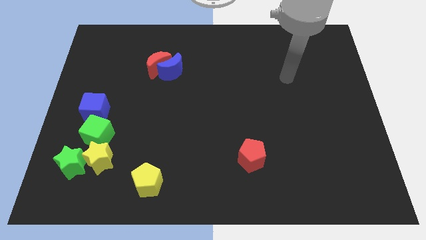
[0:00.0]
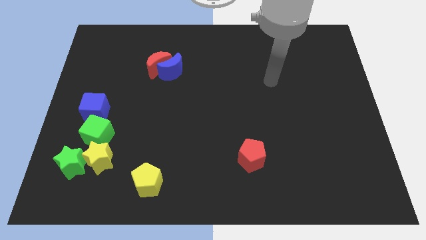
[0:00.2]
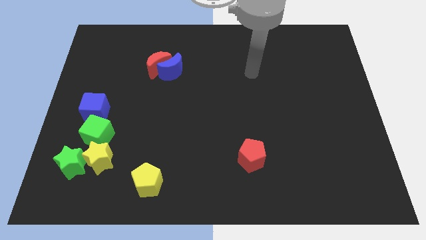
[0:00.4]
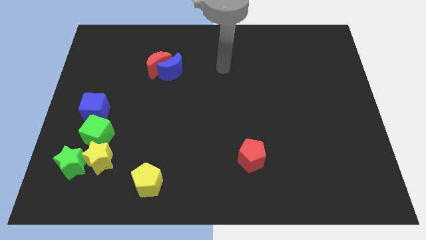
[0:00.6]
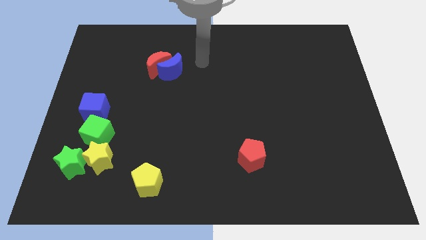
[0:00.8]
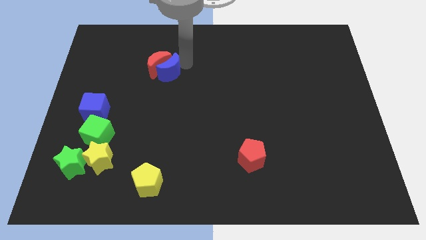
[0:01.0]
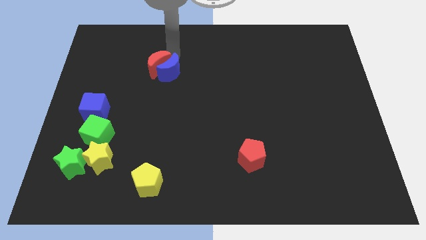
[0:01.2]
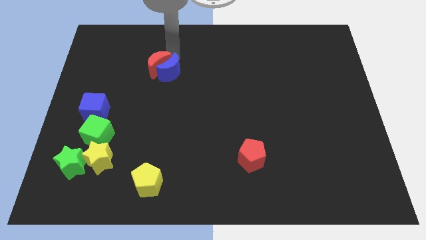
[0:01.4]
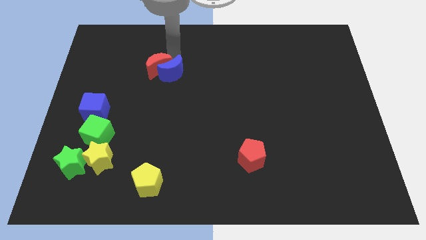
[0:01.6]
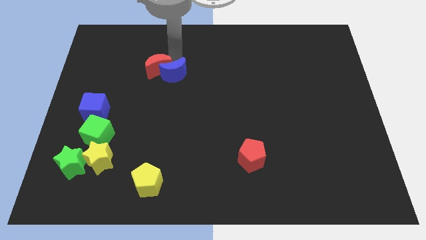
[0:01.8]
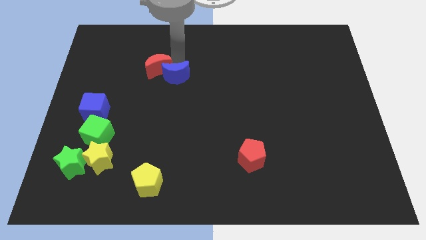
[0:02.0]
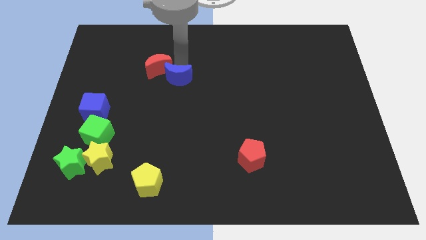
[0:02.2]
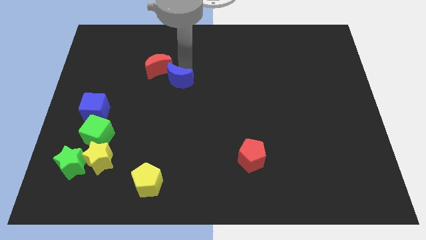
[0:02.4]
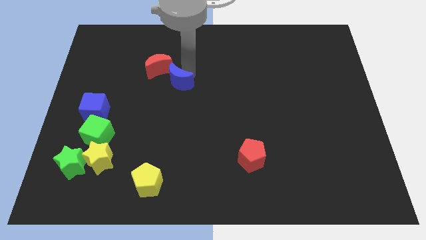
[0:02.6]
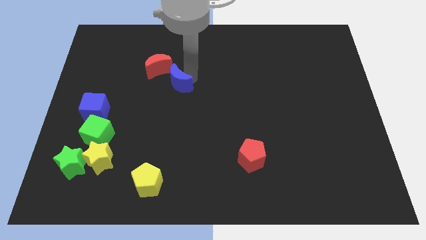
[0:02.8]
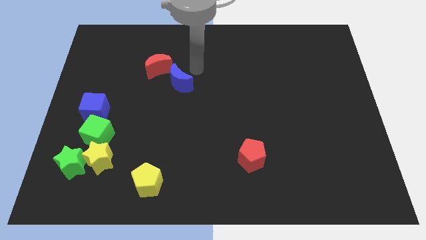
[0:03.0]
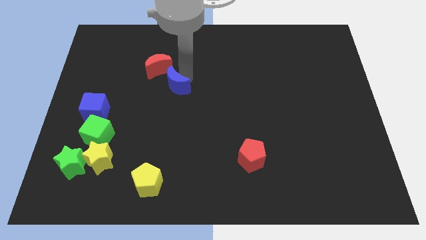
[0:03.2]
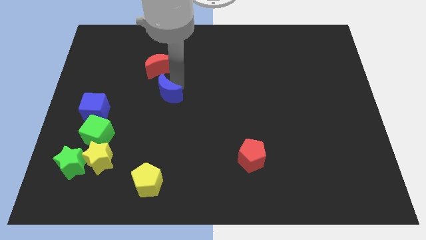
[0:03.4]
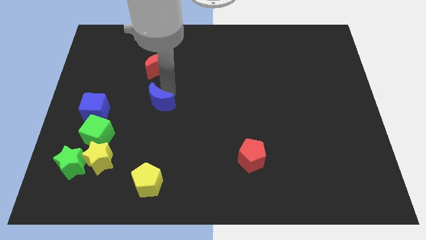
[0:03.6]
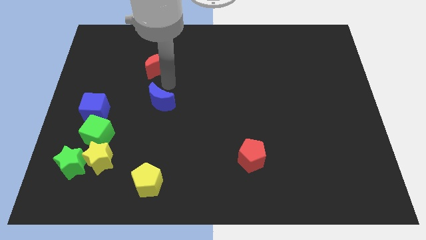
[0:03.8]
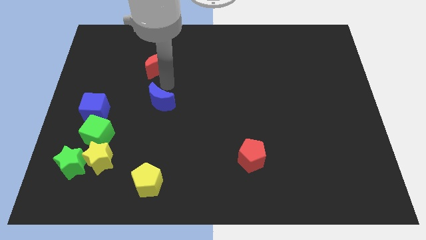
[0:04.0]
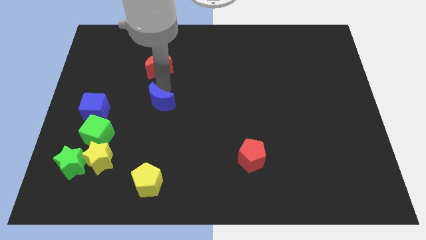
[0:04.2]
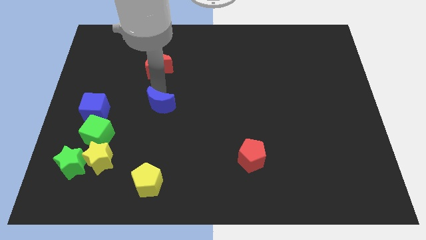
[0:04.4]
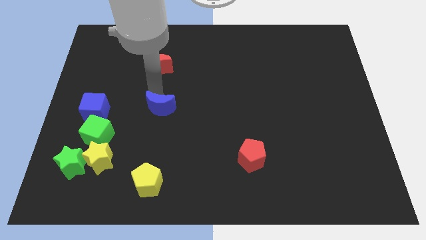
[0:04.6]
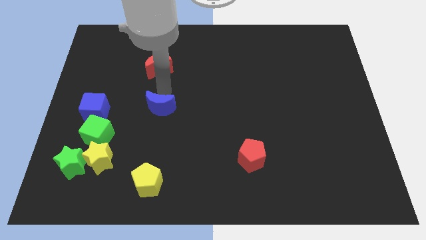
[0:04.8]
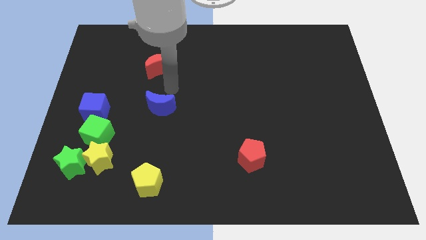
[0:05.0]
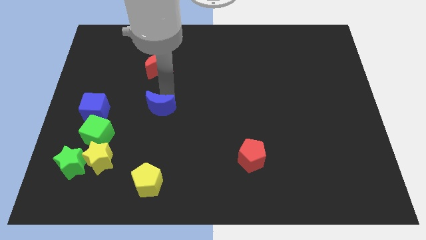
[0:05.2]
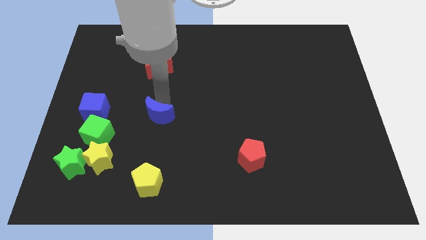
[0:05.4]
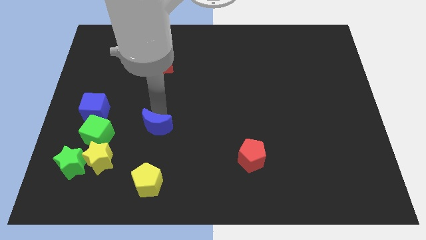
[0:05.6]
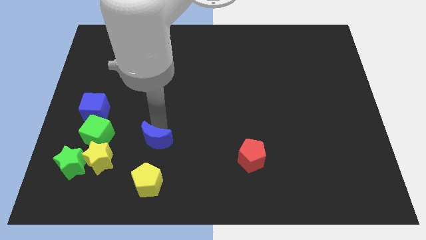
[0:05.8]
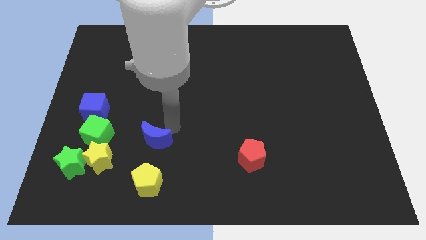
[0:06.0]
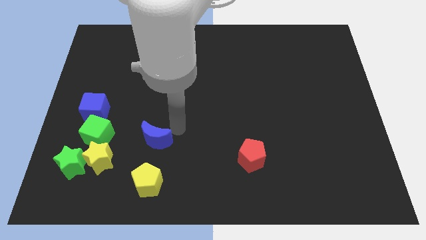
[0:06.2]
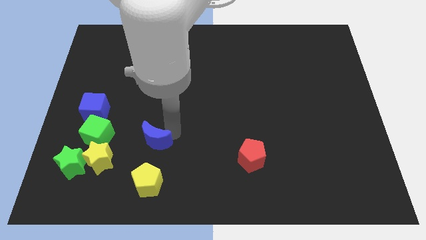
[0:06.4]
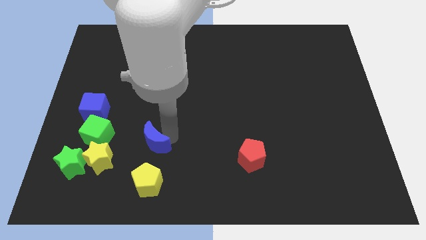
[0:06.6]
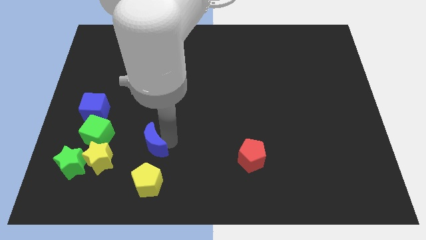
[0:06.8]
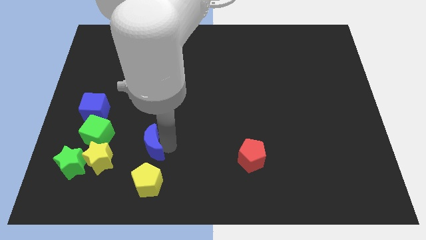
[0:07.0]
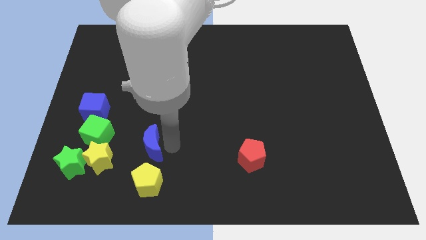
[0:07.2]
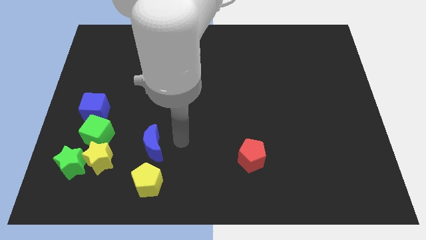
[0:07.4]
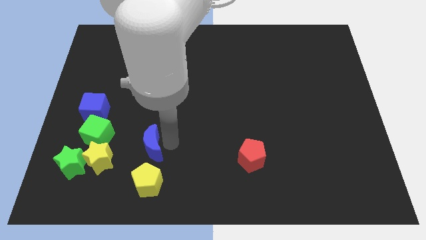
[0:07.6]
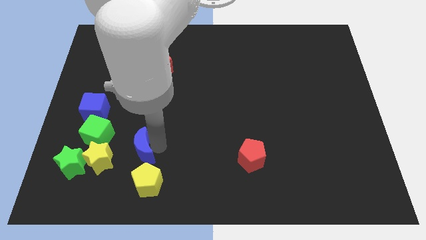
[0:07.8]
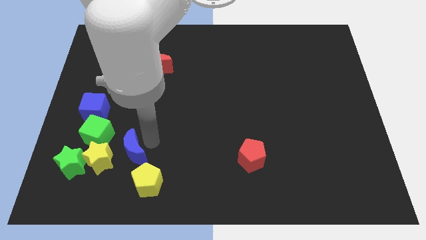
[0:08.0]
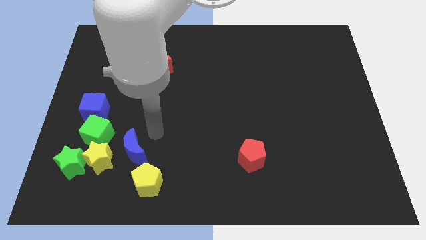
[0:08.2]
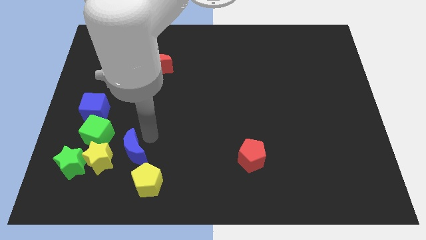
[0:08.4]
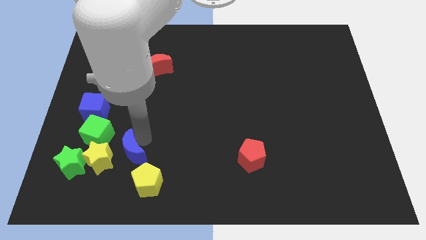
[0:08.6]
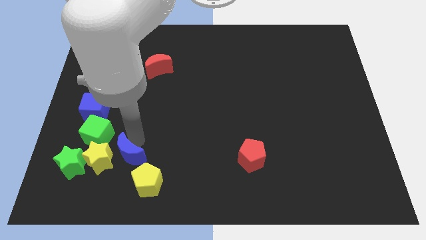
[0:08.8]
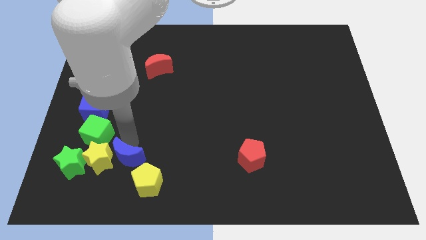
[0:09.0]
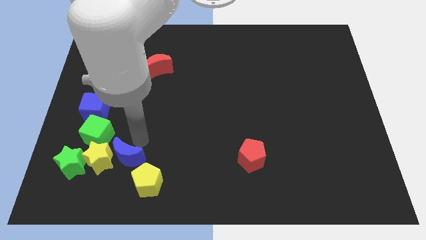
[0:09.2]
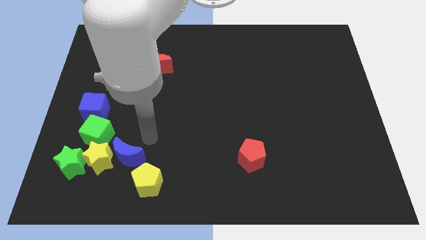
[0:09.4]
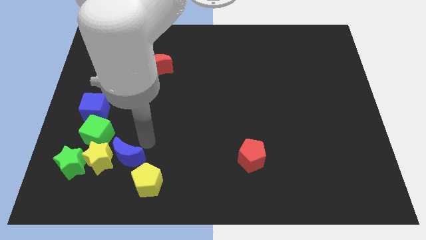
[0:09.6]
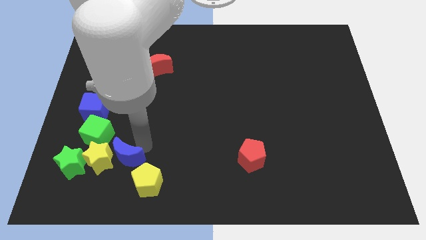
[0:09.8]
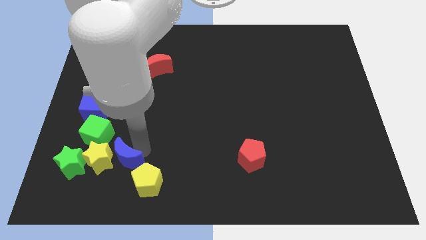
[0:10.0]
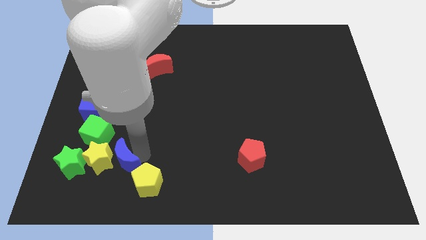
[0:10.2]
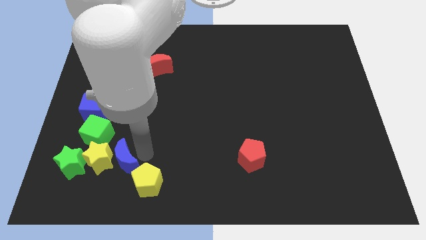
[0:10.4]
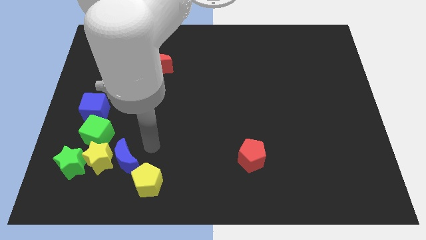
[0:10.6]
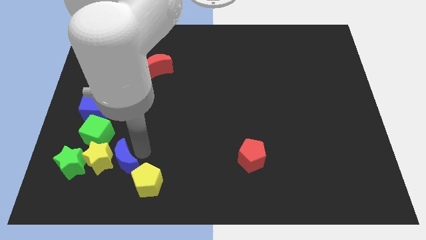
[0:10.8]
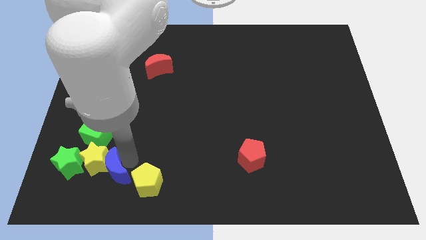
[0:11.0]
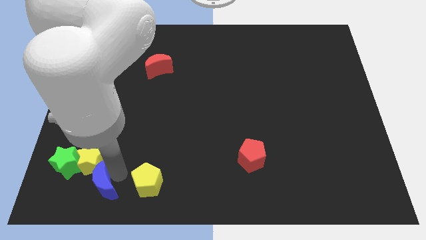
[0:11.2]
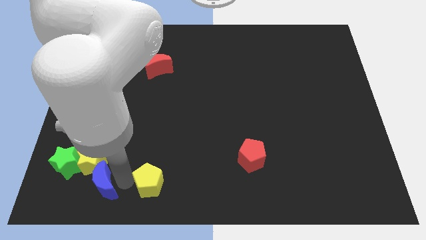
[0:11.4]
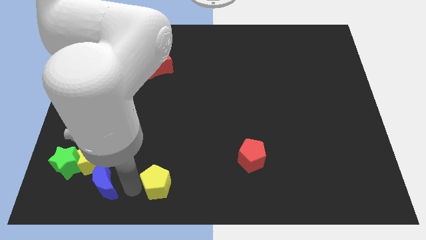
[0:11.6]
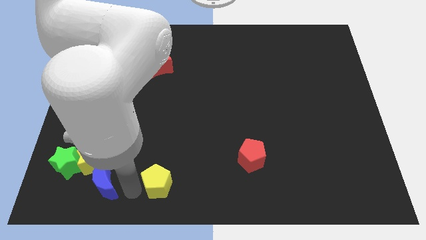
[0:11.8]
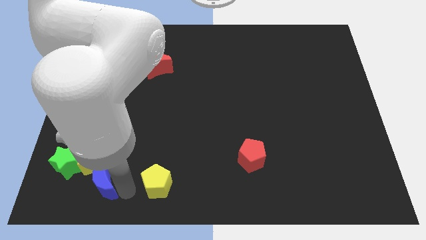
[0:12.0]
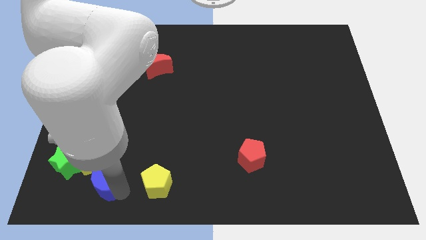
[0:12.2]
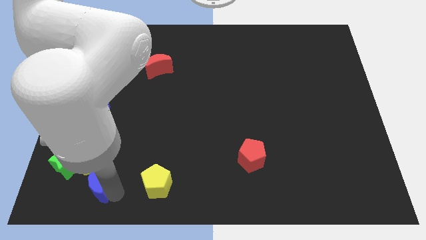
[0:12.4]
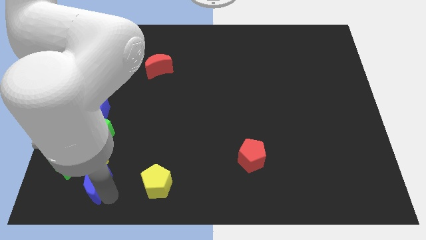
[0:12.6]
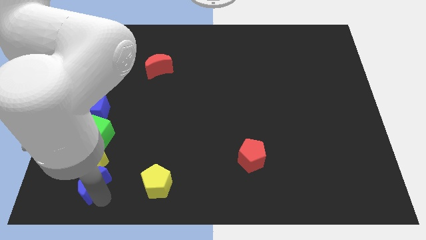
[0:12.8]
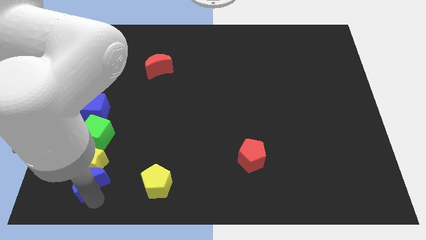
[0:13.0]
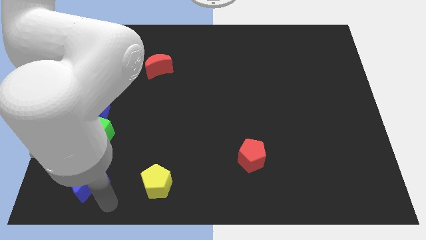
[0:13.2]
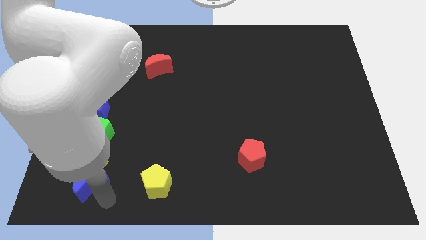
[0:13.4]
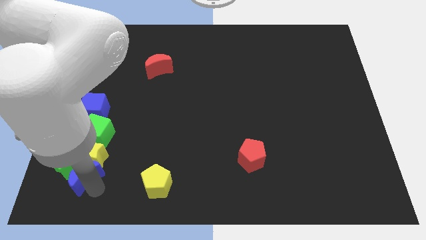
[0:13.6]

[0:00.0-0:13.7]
move the blue moon to the green star

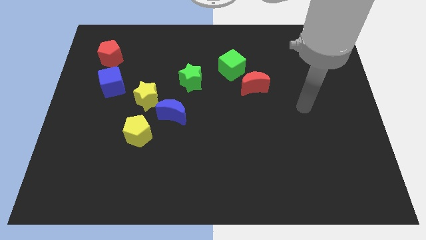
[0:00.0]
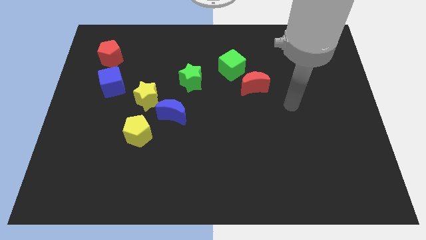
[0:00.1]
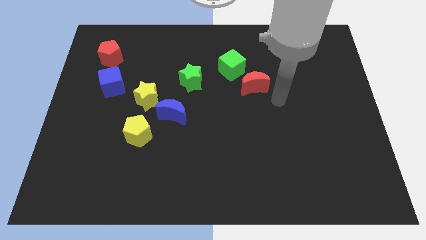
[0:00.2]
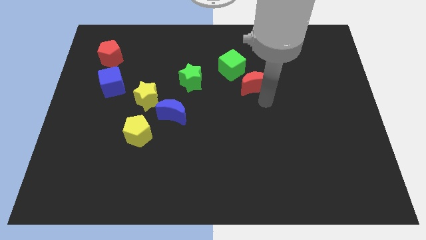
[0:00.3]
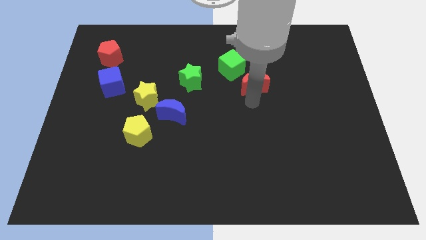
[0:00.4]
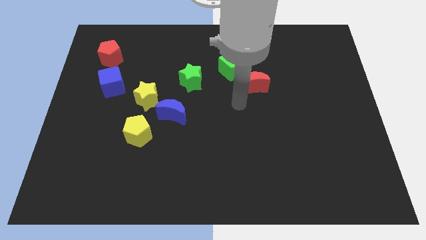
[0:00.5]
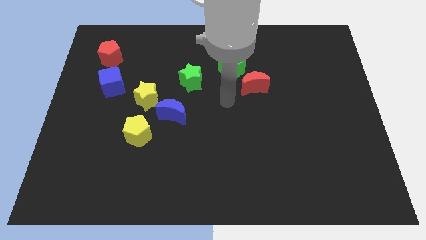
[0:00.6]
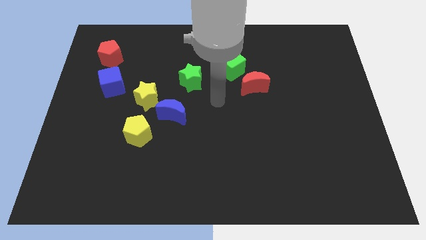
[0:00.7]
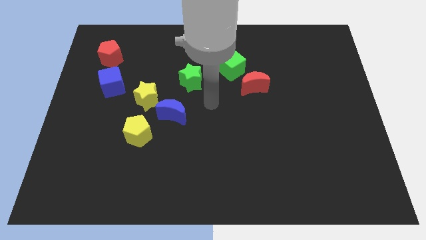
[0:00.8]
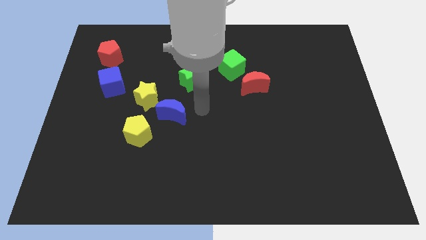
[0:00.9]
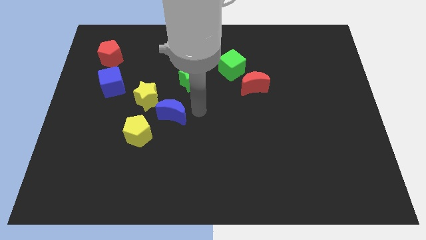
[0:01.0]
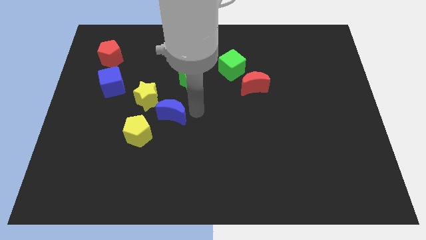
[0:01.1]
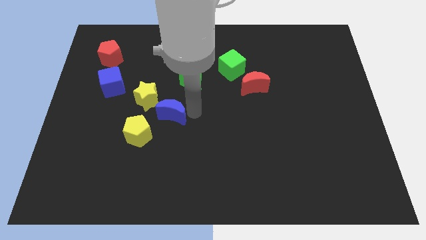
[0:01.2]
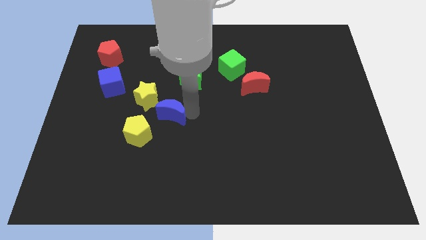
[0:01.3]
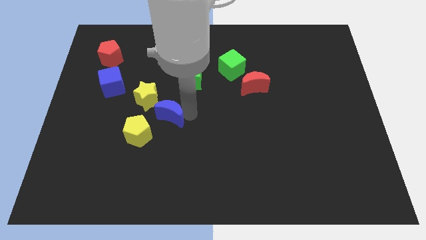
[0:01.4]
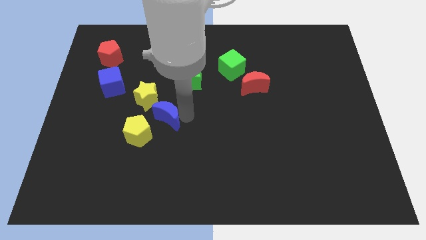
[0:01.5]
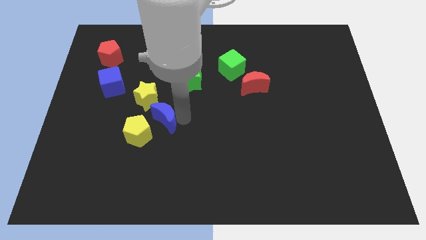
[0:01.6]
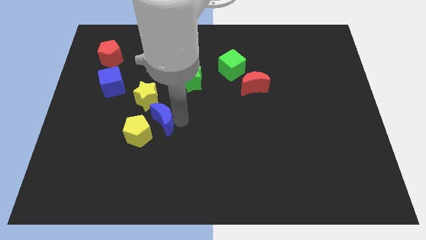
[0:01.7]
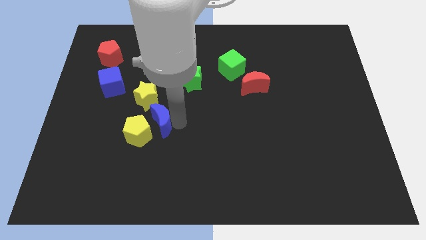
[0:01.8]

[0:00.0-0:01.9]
move the blue moon to the yellow pentagon
